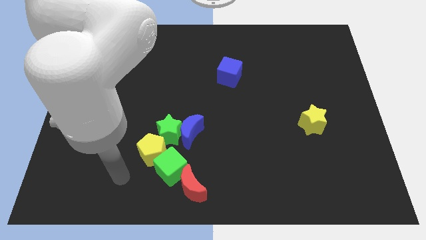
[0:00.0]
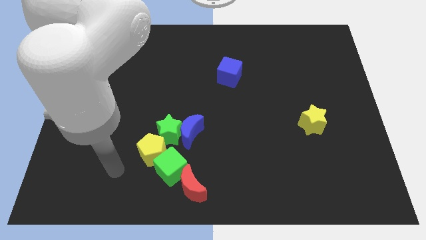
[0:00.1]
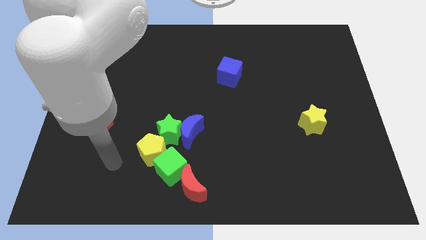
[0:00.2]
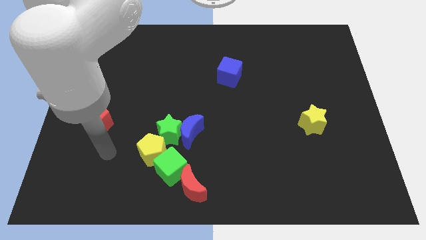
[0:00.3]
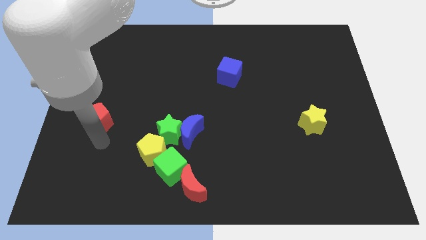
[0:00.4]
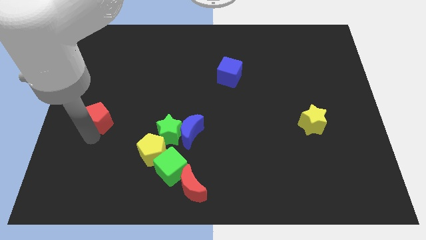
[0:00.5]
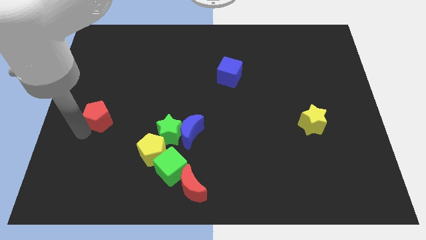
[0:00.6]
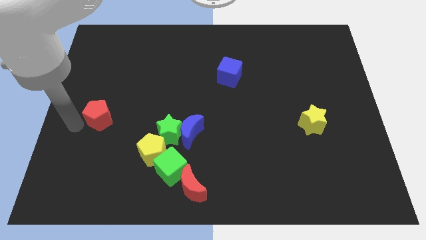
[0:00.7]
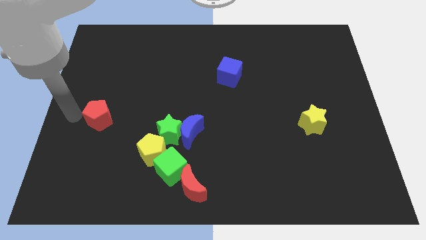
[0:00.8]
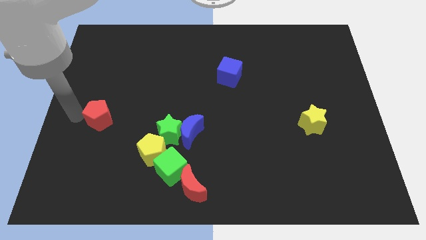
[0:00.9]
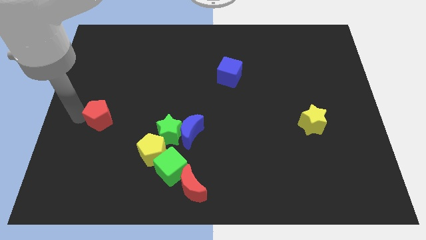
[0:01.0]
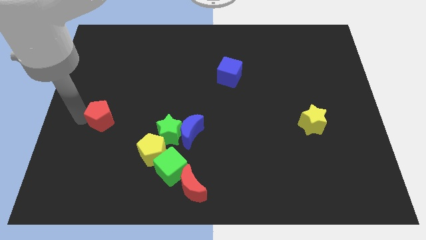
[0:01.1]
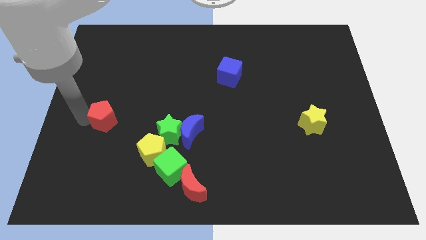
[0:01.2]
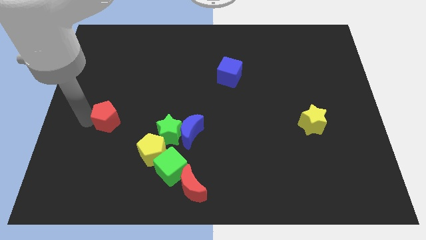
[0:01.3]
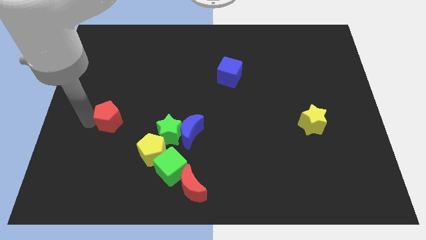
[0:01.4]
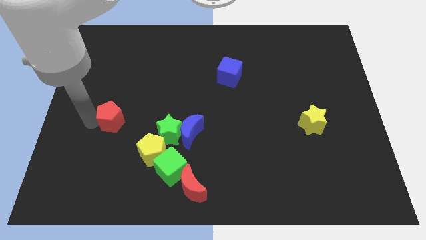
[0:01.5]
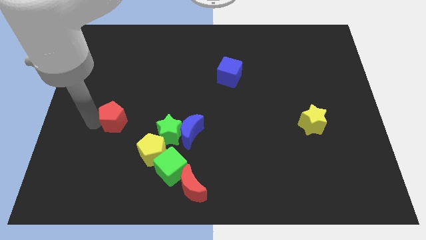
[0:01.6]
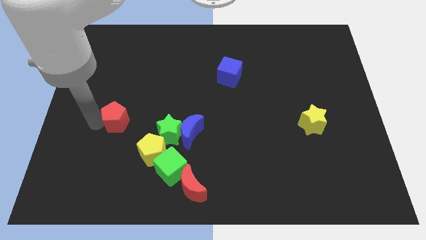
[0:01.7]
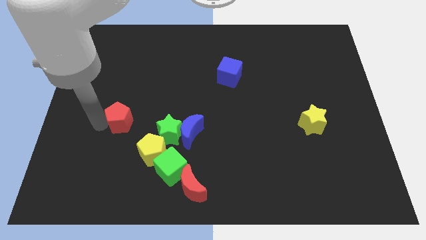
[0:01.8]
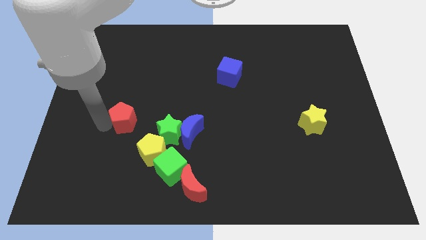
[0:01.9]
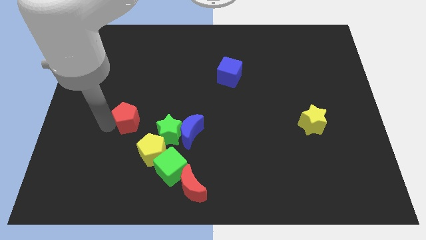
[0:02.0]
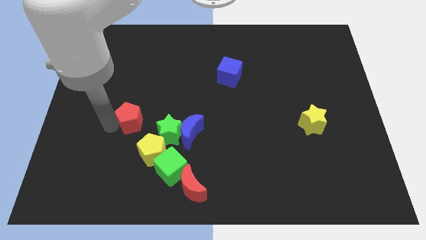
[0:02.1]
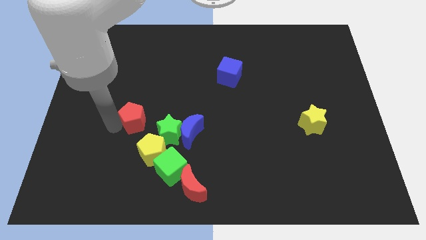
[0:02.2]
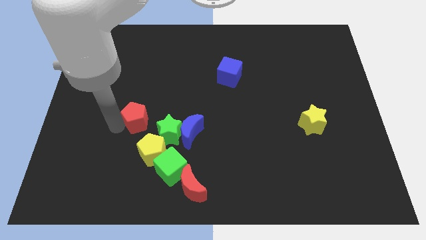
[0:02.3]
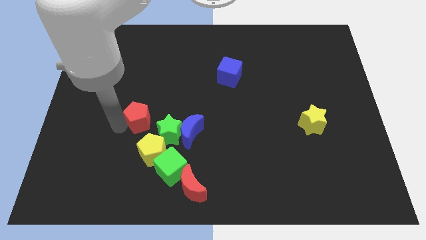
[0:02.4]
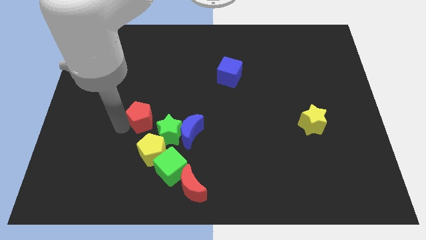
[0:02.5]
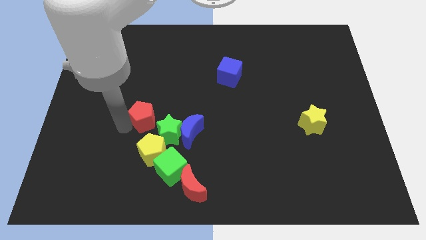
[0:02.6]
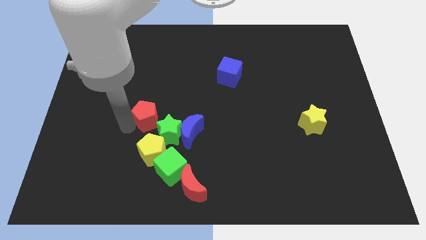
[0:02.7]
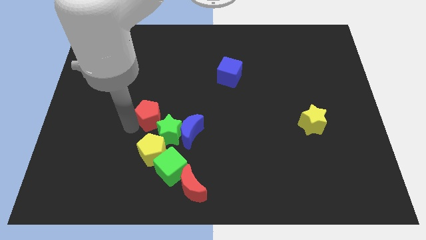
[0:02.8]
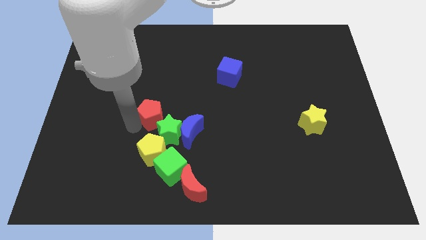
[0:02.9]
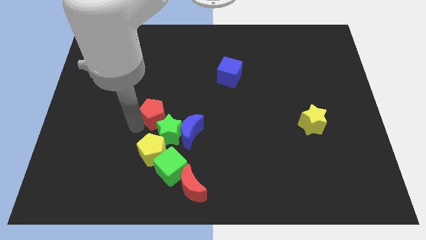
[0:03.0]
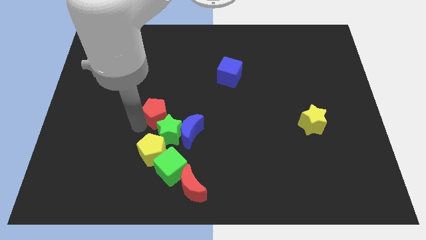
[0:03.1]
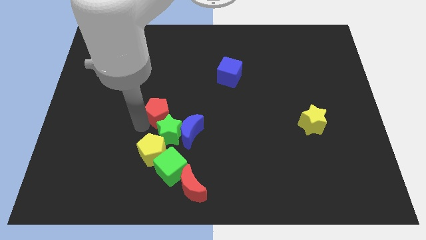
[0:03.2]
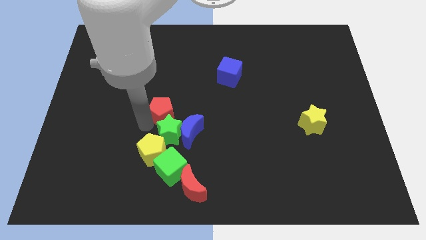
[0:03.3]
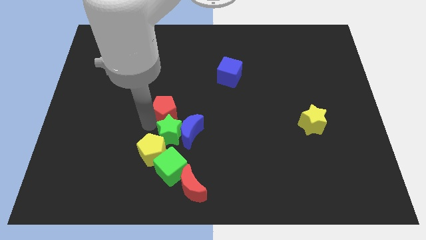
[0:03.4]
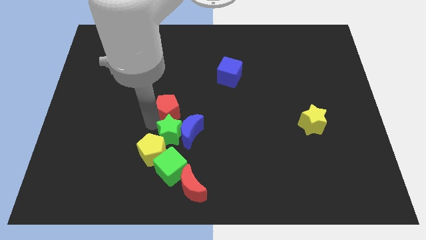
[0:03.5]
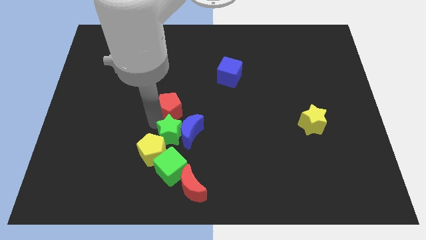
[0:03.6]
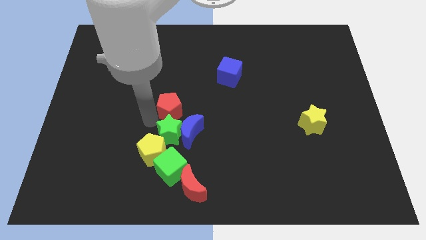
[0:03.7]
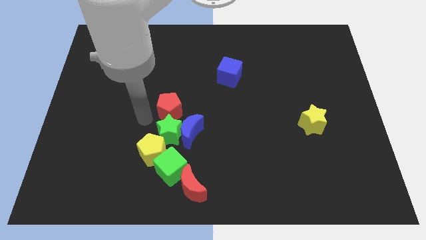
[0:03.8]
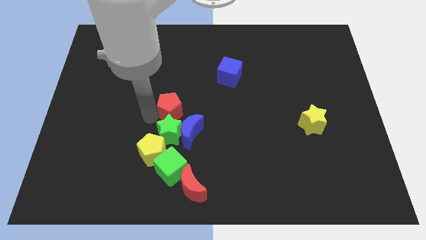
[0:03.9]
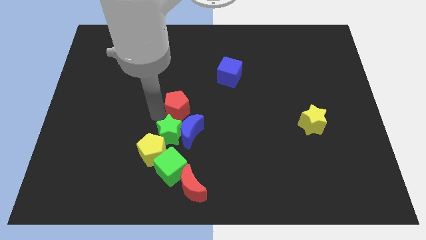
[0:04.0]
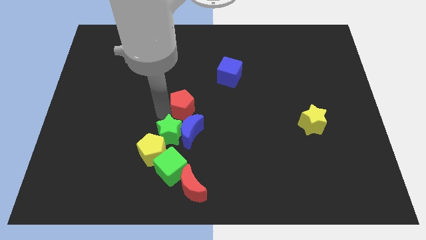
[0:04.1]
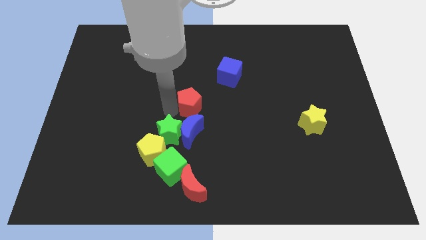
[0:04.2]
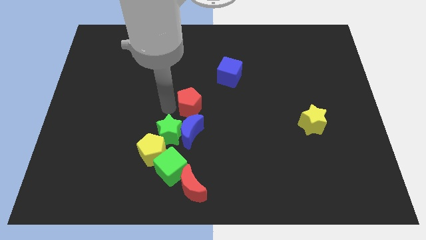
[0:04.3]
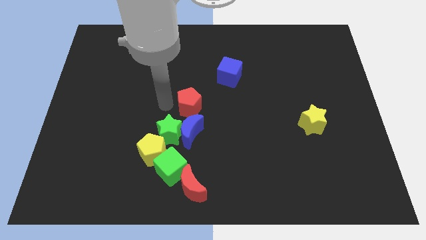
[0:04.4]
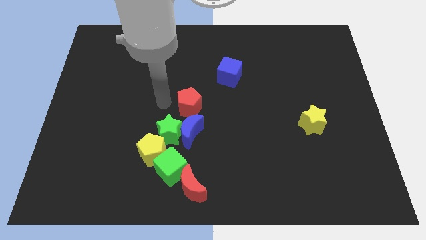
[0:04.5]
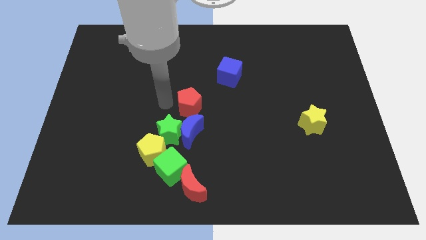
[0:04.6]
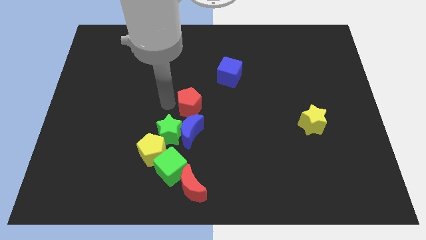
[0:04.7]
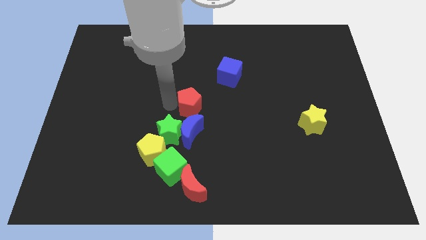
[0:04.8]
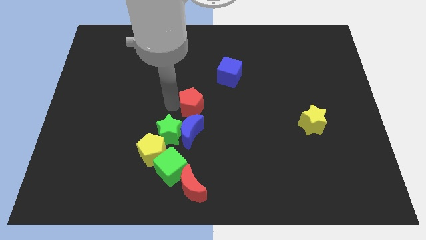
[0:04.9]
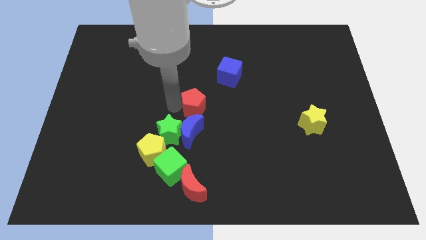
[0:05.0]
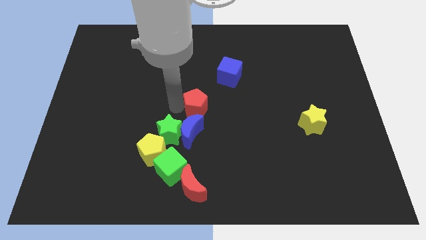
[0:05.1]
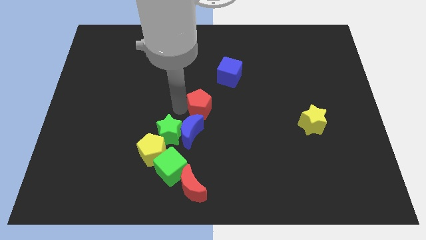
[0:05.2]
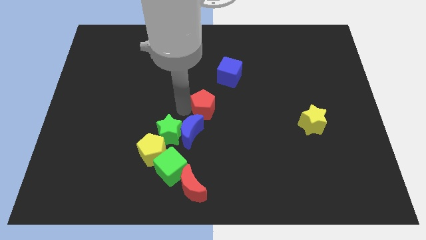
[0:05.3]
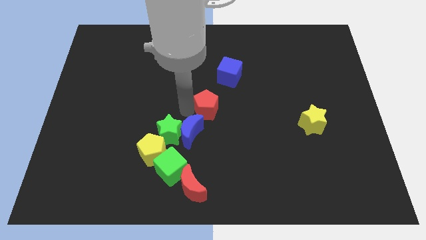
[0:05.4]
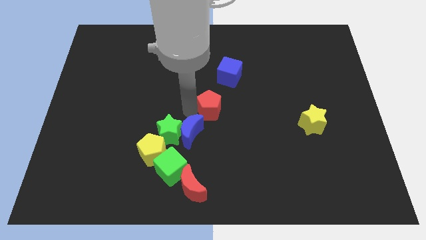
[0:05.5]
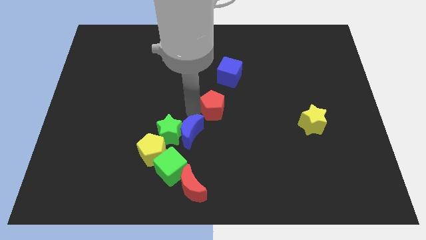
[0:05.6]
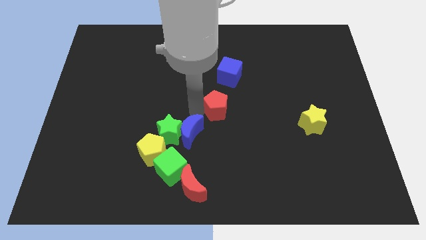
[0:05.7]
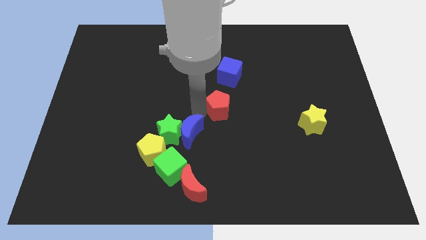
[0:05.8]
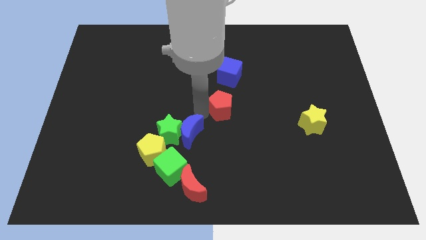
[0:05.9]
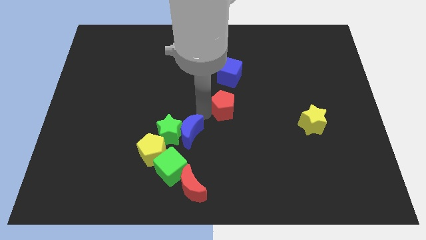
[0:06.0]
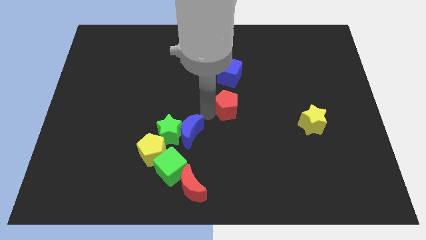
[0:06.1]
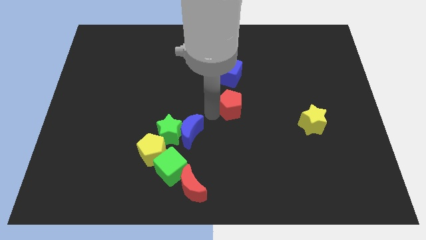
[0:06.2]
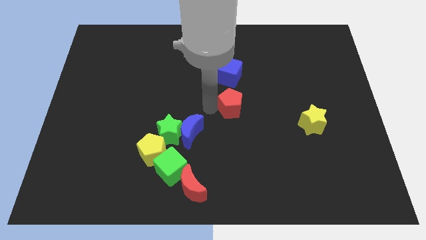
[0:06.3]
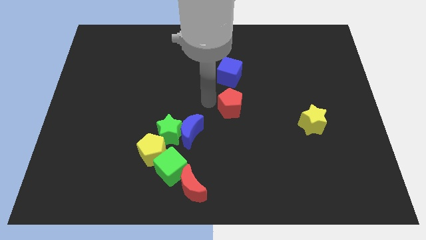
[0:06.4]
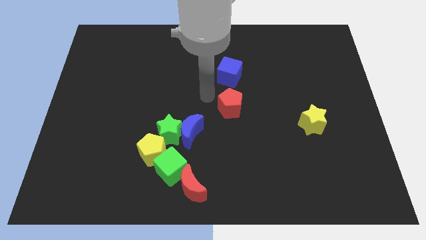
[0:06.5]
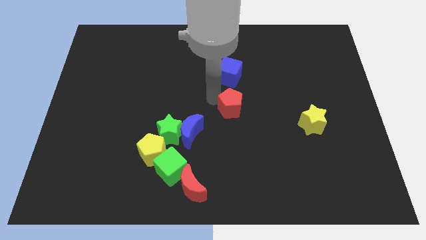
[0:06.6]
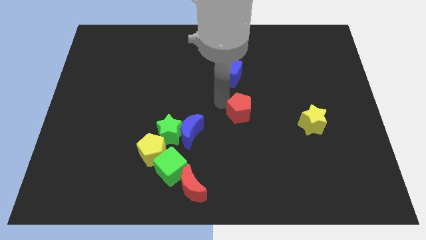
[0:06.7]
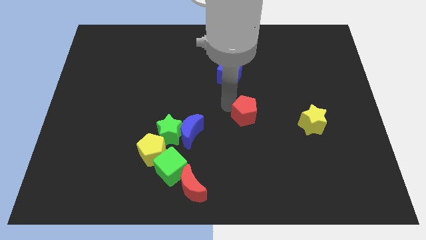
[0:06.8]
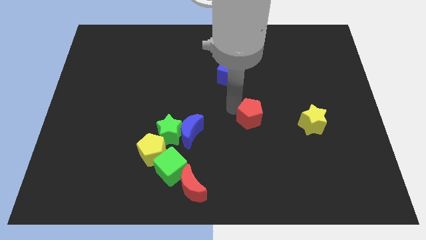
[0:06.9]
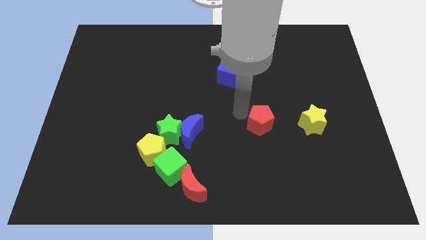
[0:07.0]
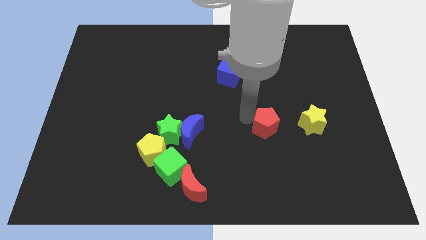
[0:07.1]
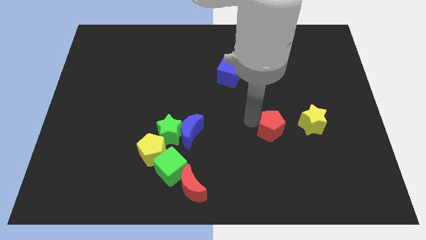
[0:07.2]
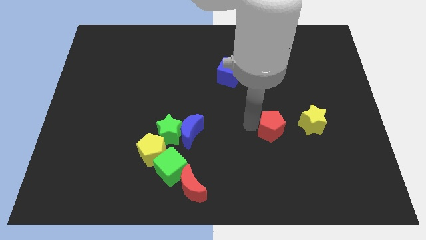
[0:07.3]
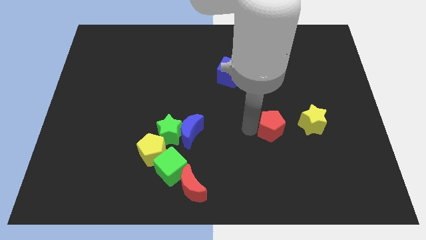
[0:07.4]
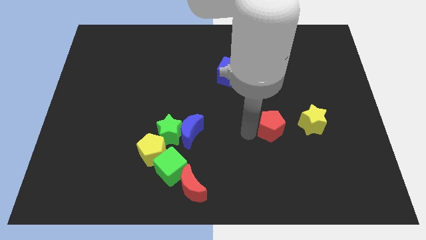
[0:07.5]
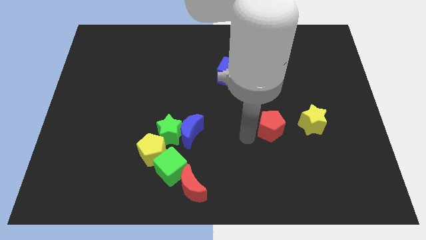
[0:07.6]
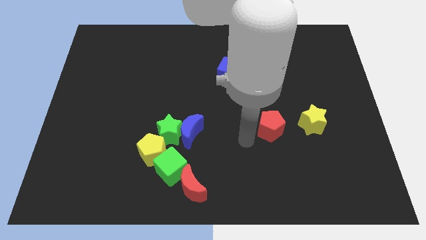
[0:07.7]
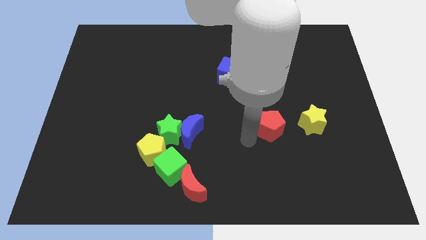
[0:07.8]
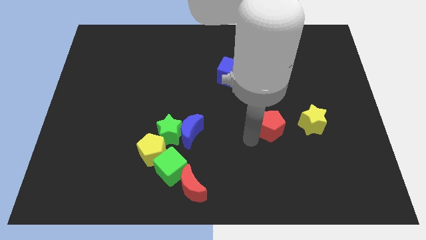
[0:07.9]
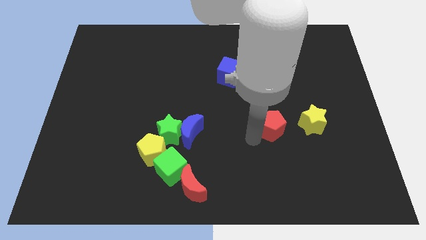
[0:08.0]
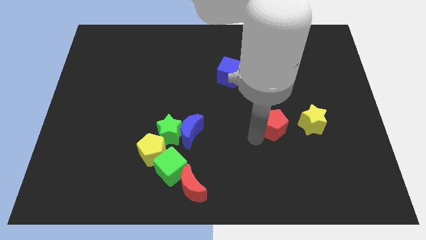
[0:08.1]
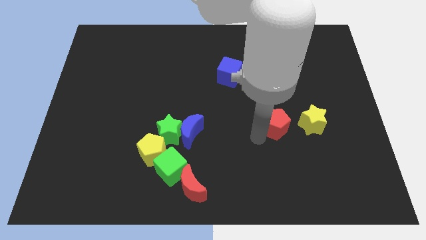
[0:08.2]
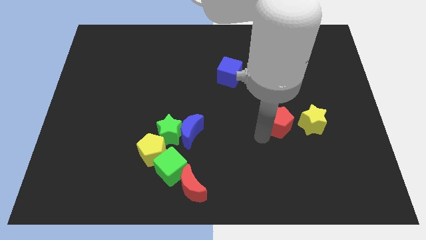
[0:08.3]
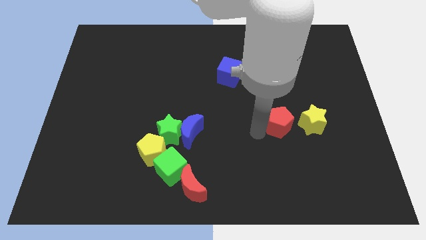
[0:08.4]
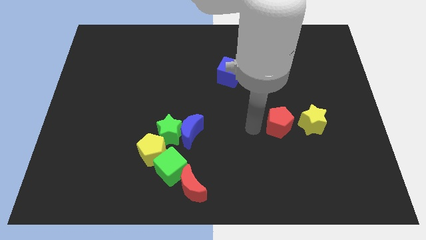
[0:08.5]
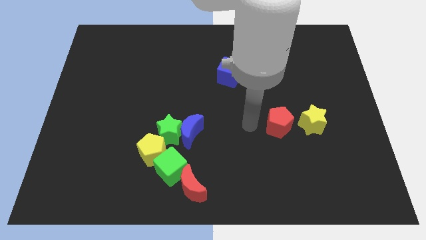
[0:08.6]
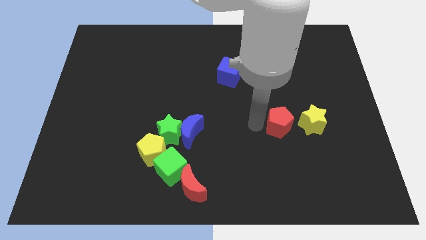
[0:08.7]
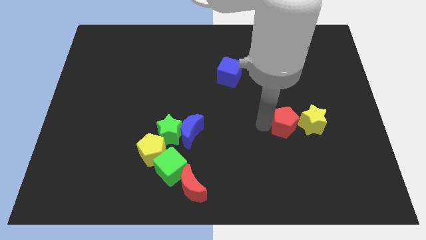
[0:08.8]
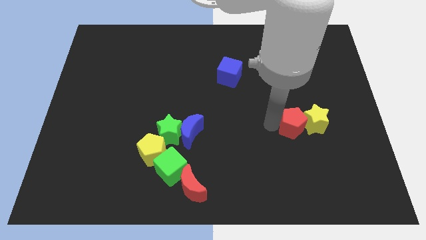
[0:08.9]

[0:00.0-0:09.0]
move the red pentagon towards the yellow star
